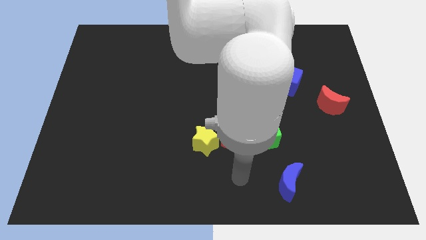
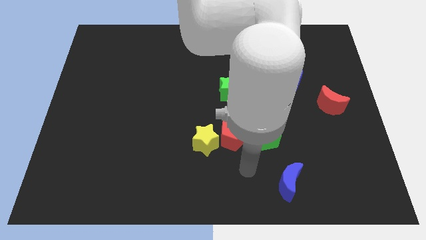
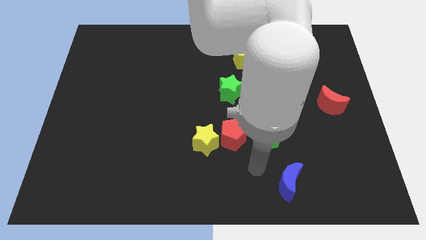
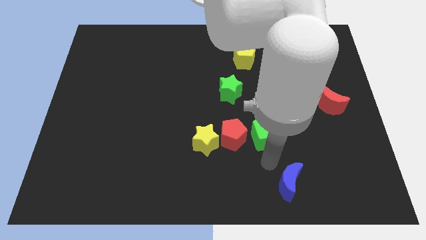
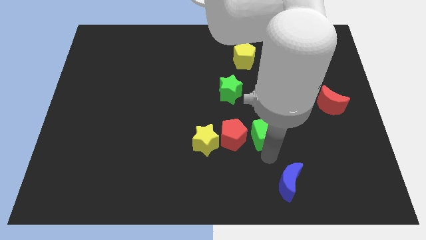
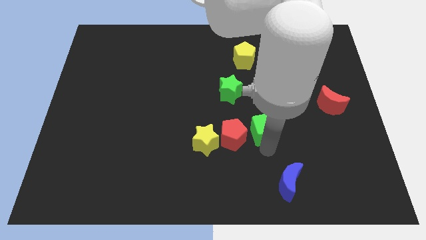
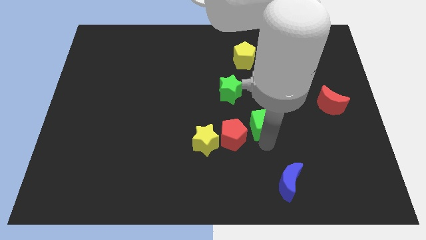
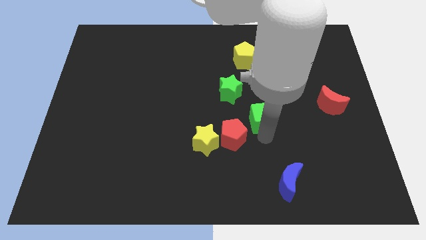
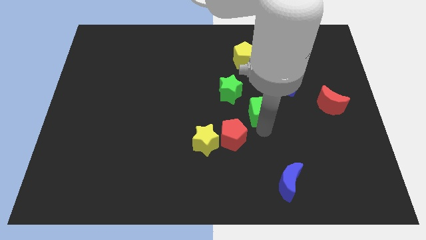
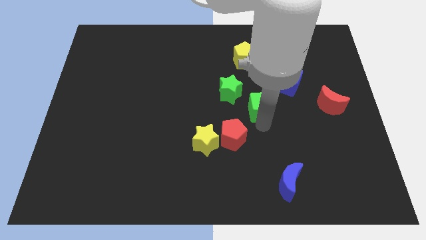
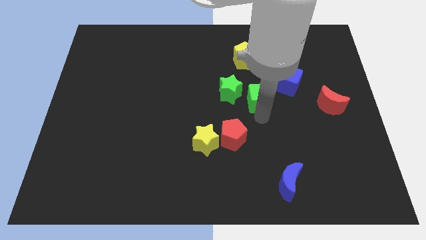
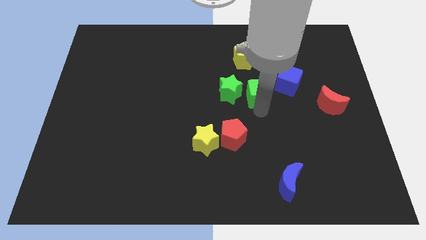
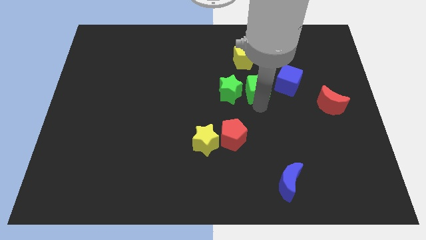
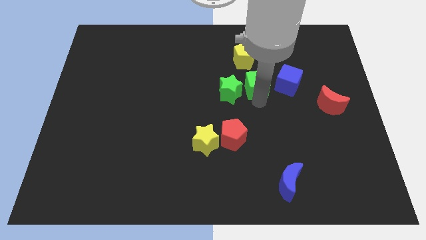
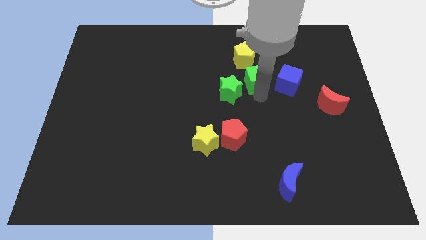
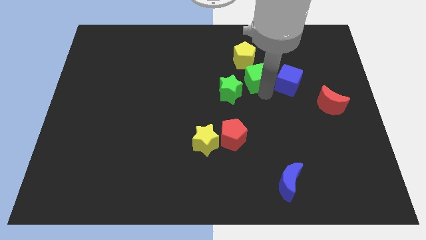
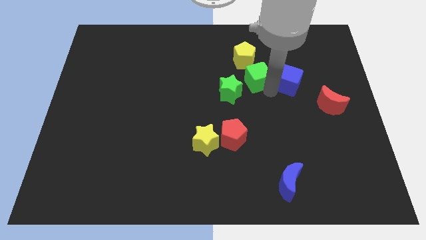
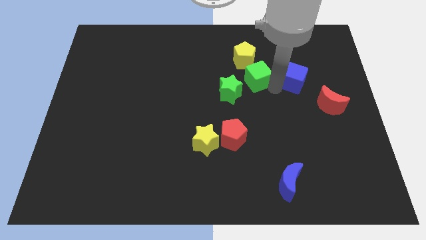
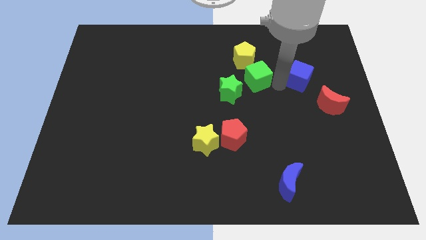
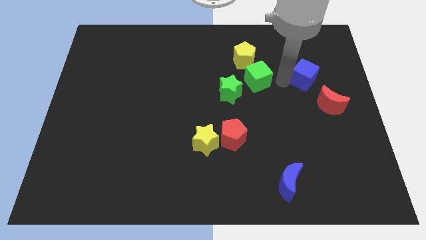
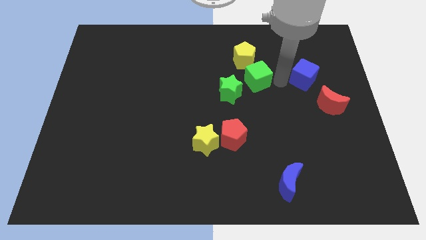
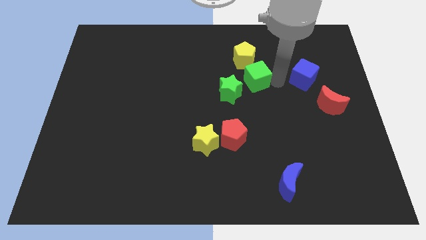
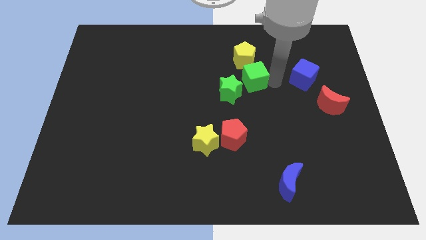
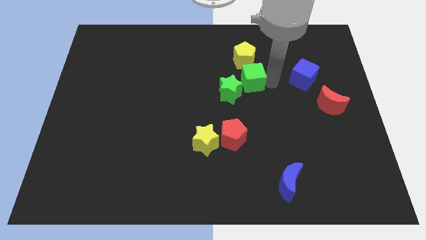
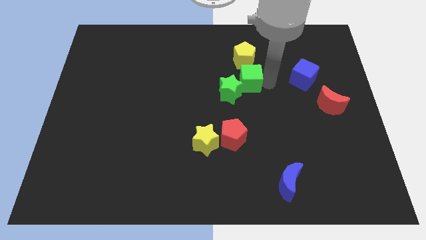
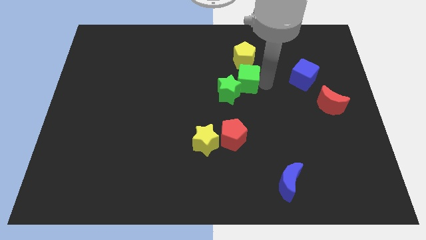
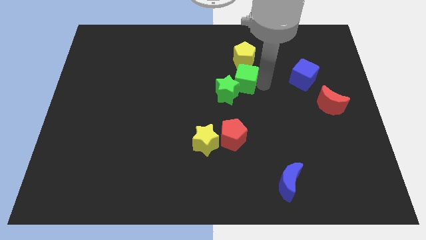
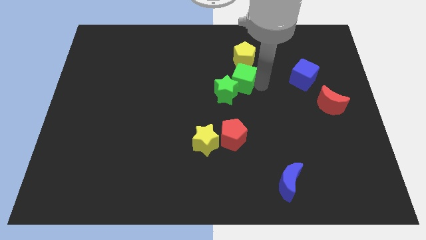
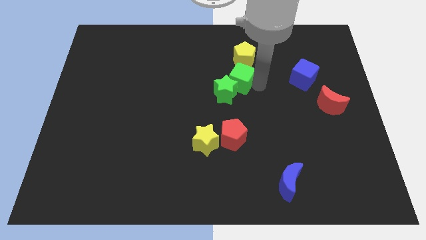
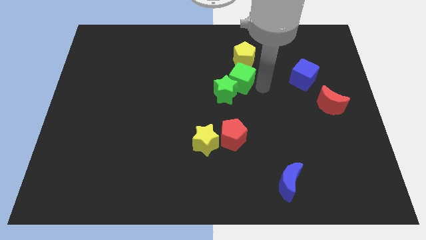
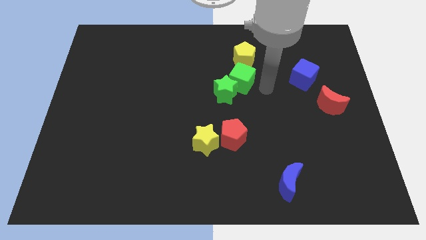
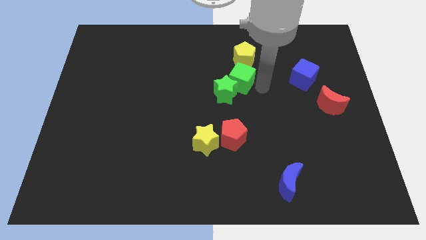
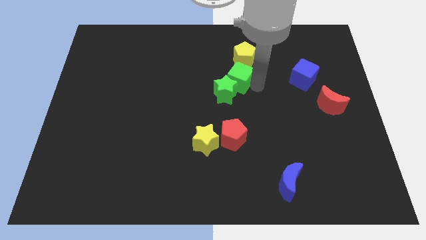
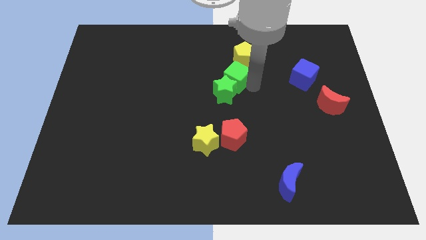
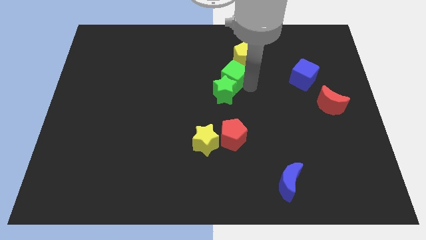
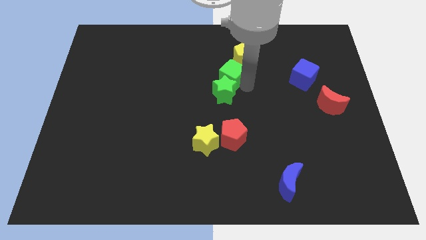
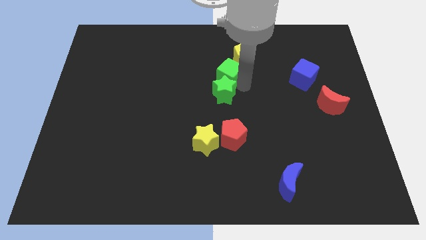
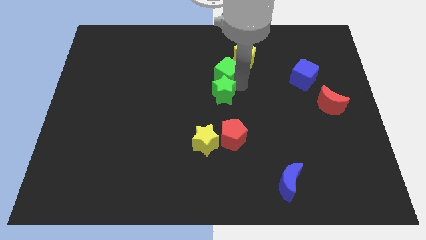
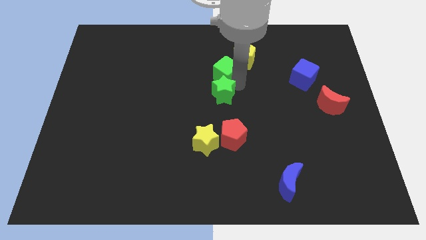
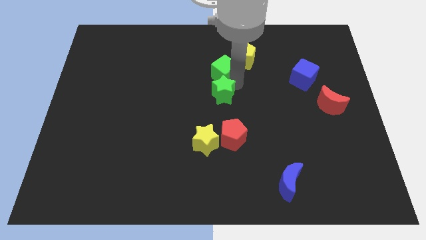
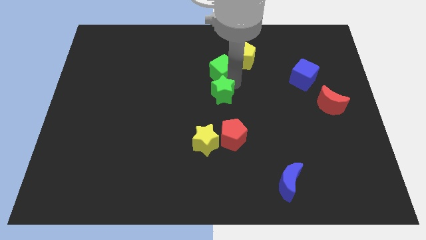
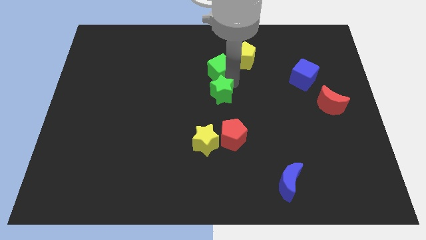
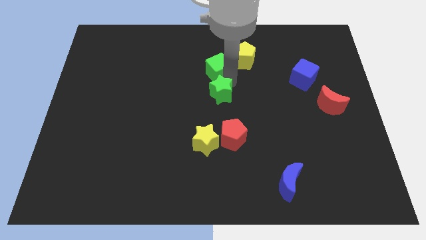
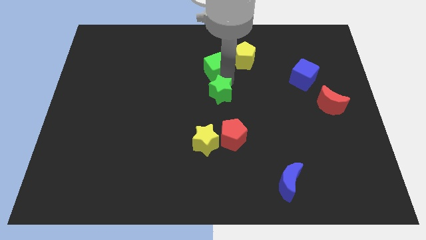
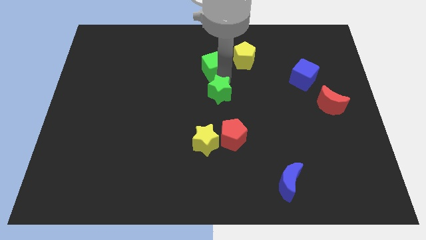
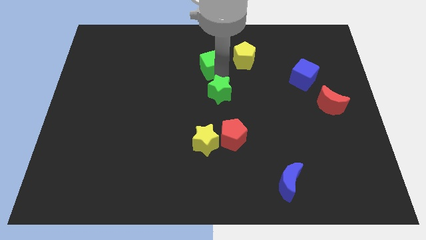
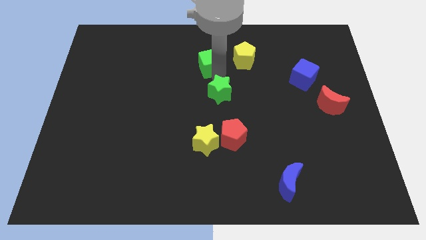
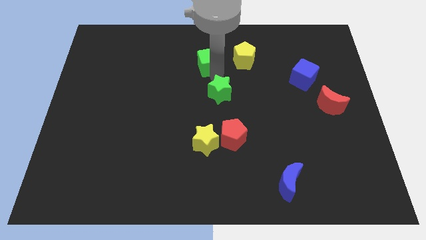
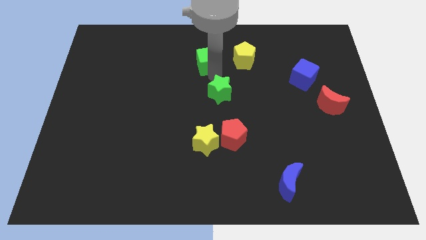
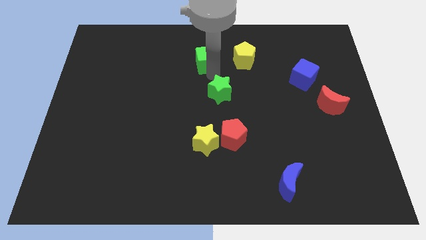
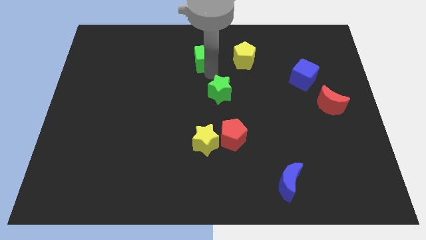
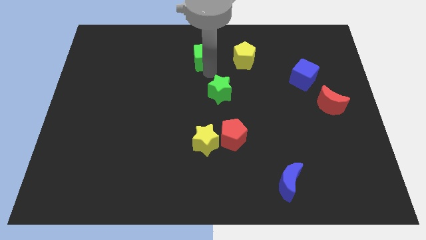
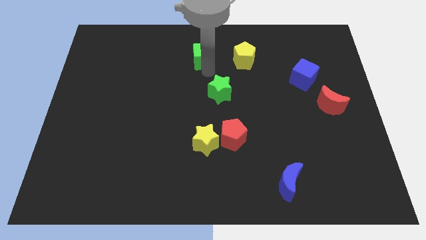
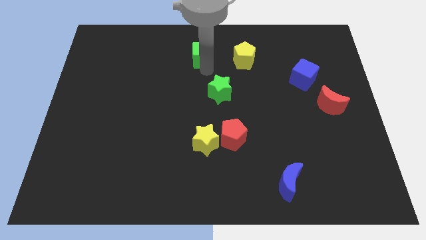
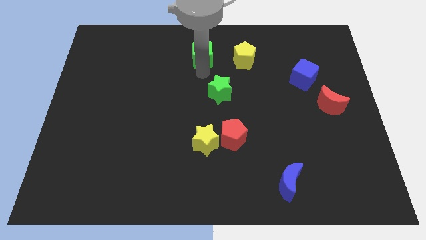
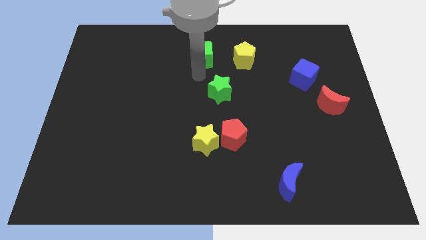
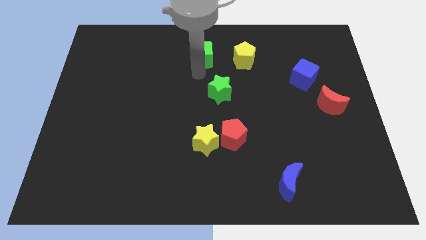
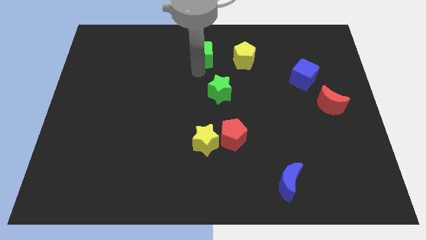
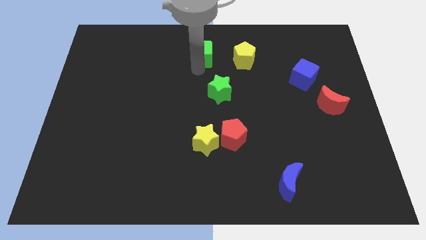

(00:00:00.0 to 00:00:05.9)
push the green cube to the top side
